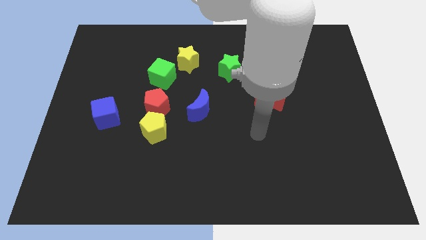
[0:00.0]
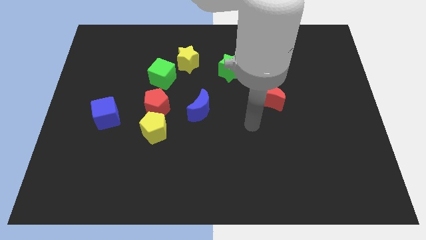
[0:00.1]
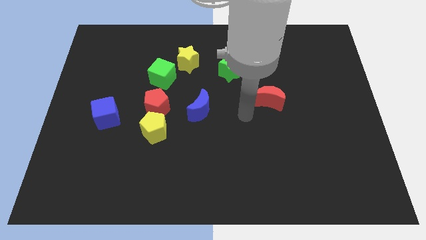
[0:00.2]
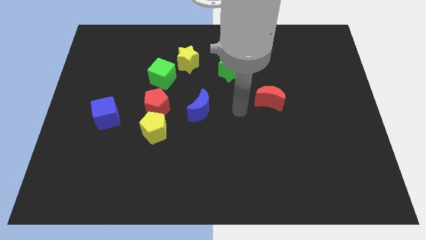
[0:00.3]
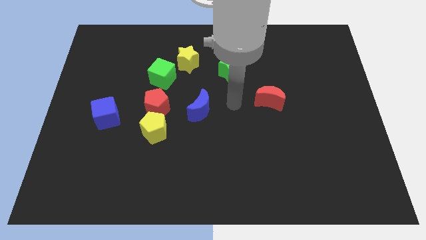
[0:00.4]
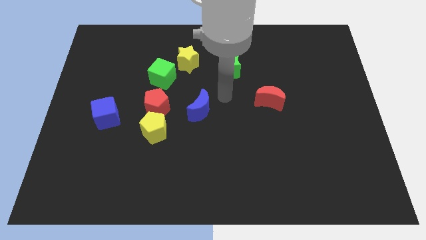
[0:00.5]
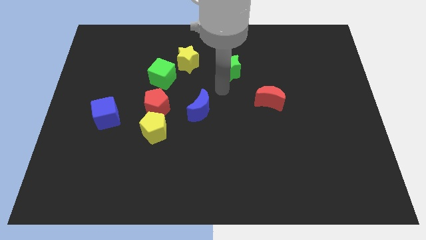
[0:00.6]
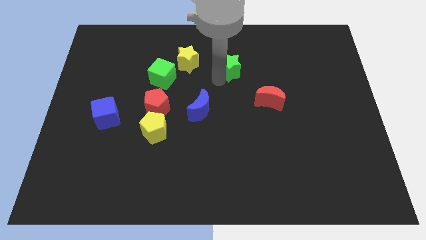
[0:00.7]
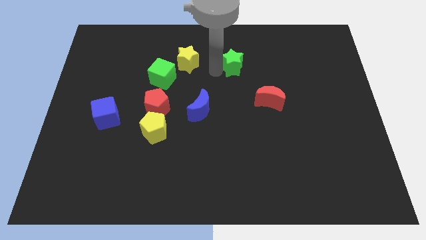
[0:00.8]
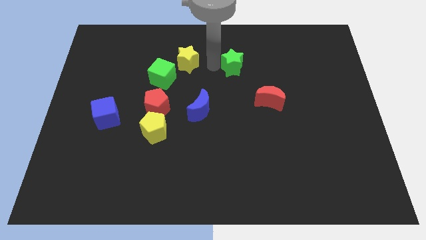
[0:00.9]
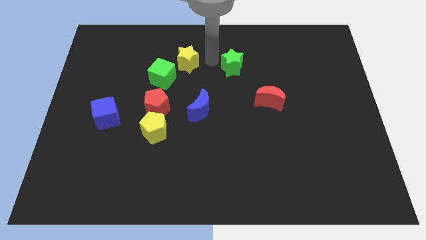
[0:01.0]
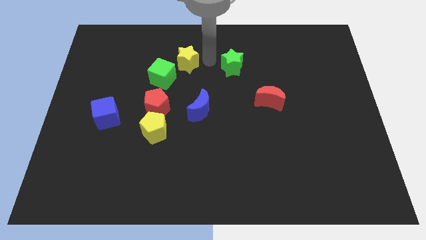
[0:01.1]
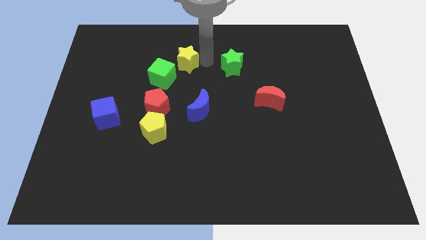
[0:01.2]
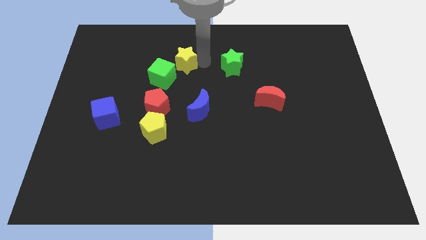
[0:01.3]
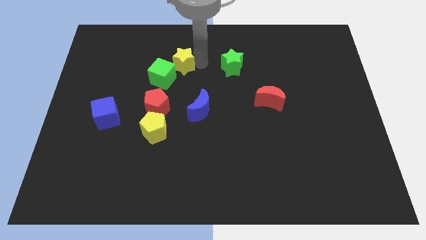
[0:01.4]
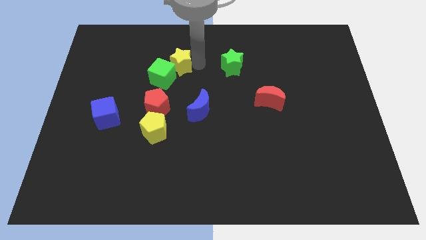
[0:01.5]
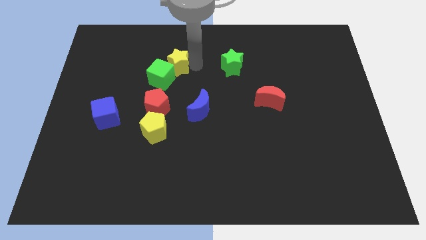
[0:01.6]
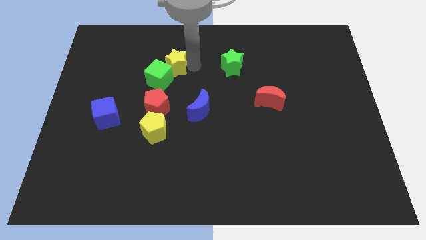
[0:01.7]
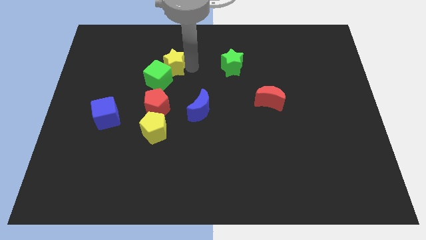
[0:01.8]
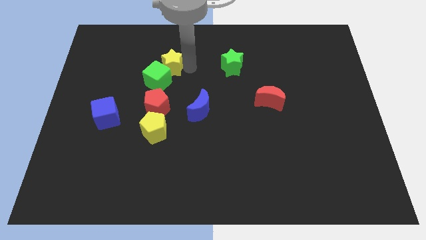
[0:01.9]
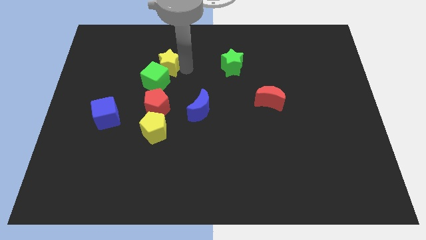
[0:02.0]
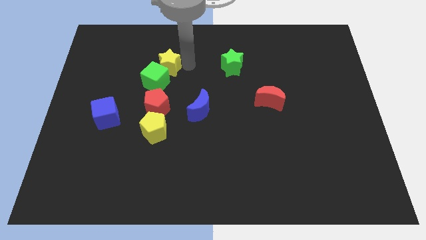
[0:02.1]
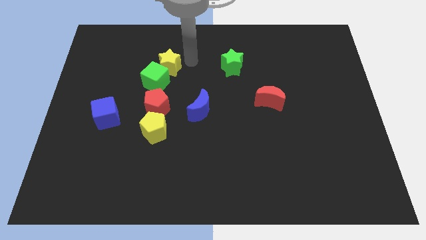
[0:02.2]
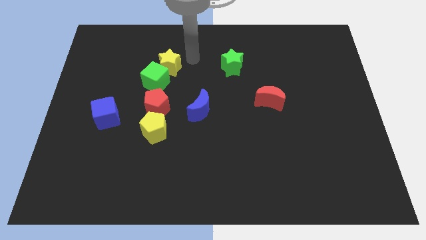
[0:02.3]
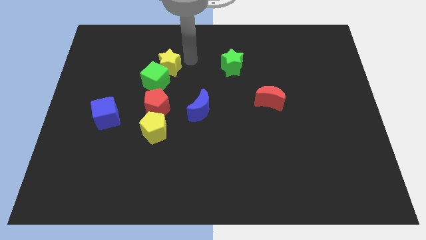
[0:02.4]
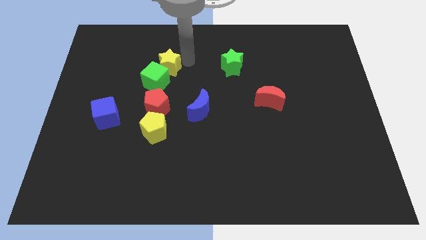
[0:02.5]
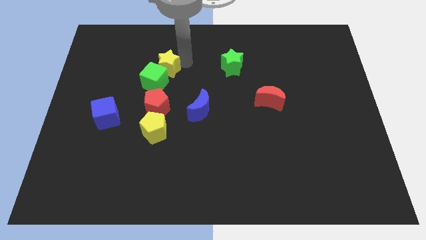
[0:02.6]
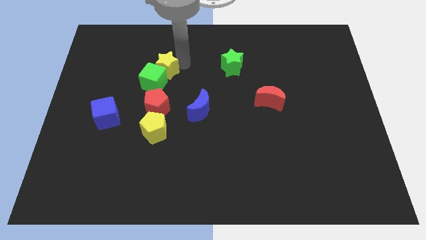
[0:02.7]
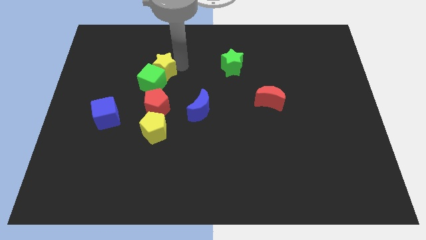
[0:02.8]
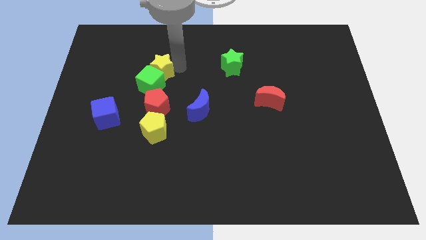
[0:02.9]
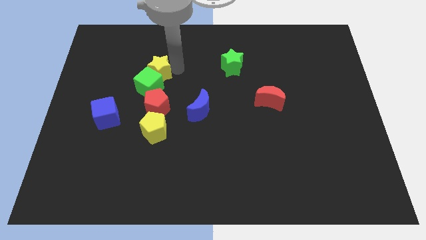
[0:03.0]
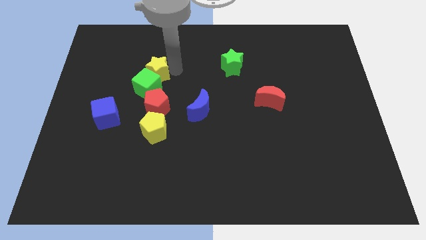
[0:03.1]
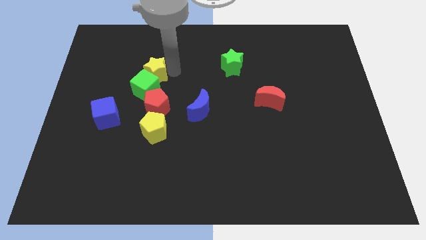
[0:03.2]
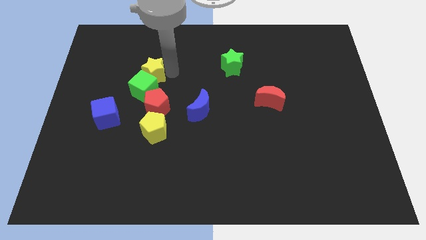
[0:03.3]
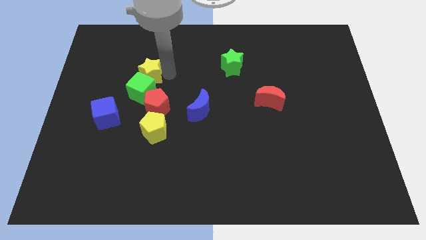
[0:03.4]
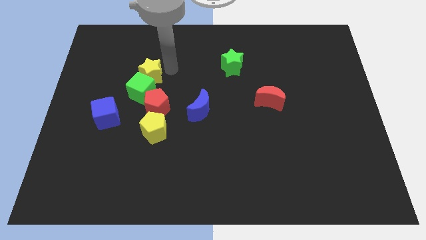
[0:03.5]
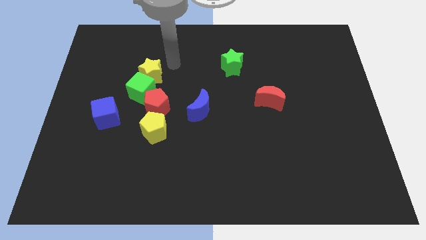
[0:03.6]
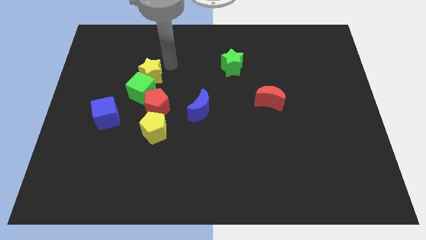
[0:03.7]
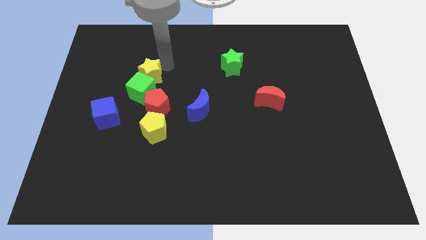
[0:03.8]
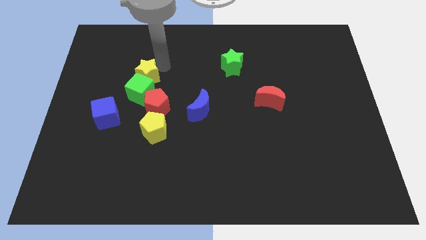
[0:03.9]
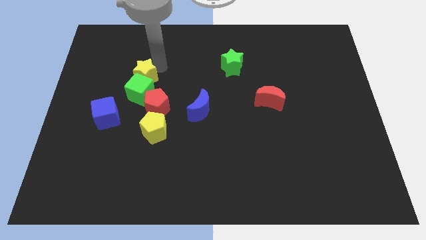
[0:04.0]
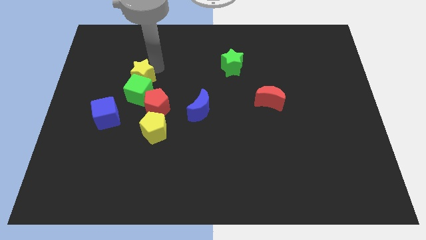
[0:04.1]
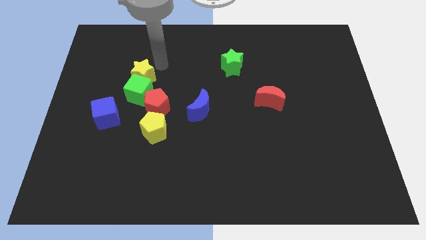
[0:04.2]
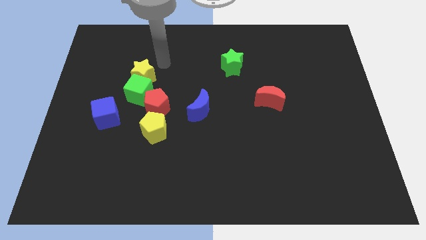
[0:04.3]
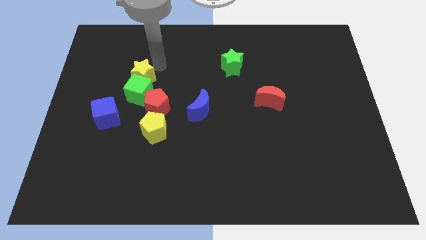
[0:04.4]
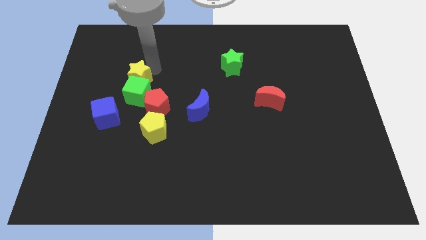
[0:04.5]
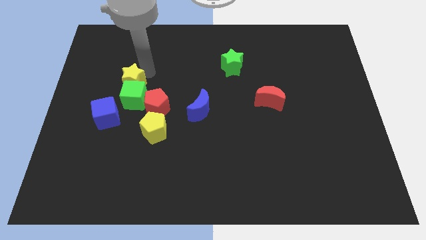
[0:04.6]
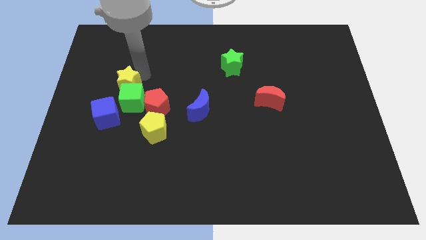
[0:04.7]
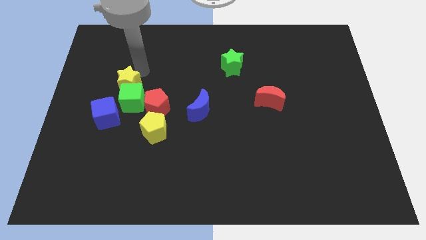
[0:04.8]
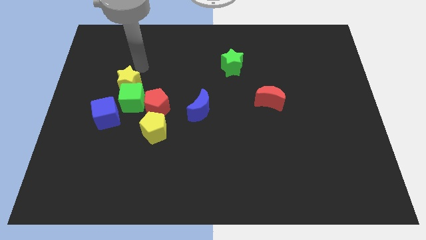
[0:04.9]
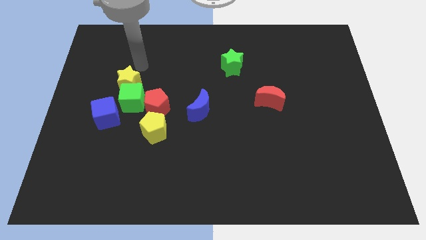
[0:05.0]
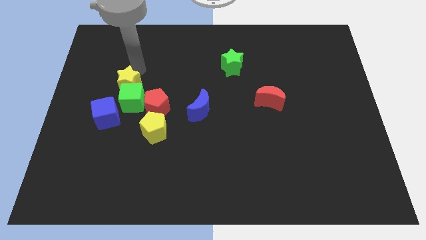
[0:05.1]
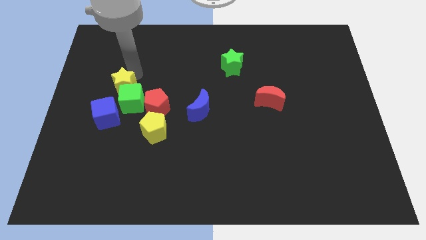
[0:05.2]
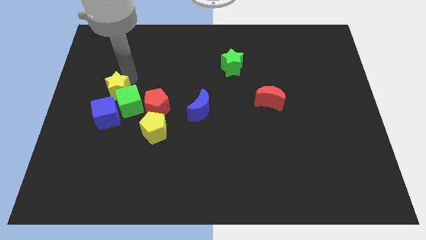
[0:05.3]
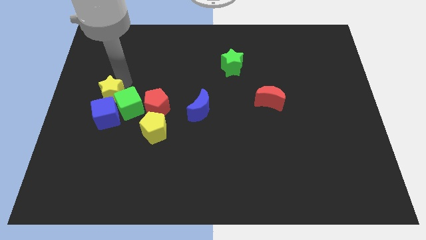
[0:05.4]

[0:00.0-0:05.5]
slide the yellow star to the left side of the red pentagon

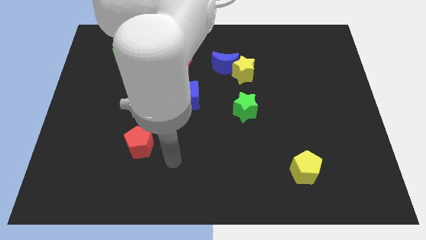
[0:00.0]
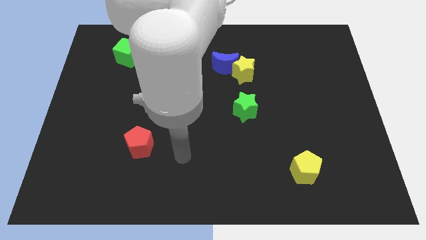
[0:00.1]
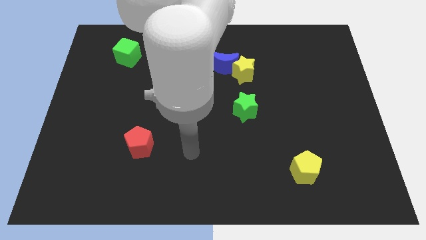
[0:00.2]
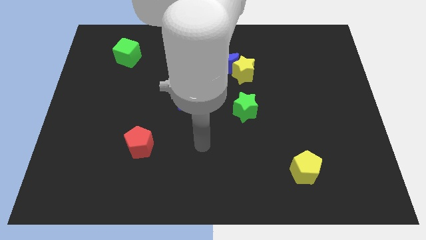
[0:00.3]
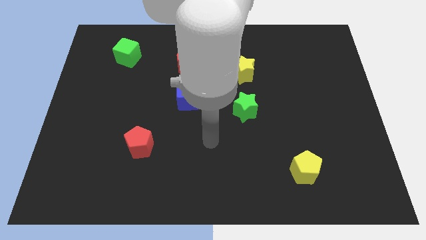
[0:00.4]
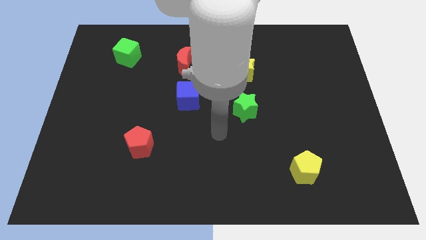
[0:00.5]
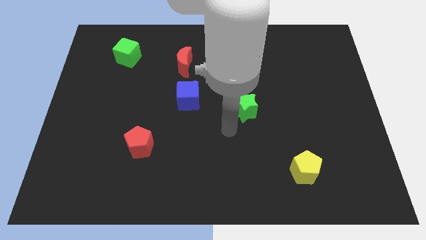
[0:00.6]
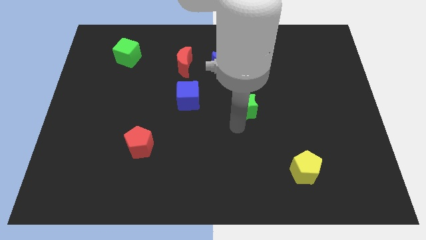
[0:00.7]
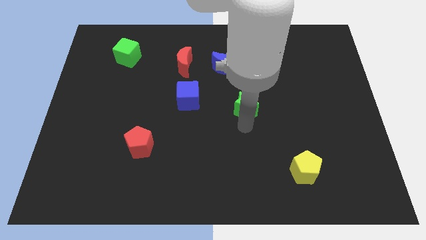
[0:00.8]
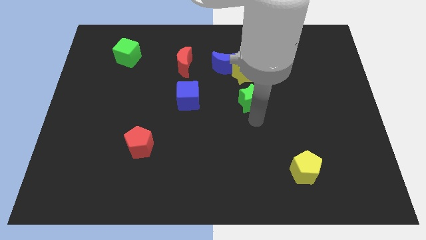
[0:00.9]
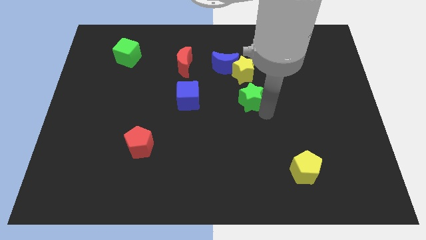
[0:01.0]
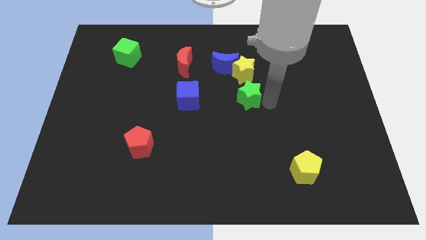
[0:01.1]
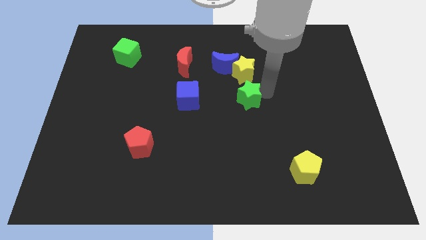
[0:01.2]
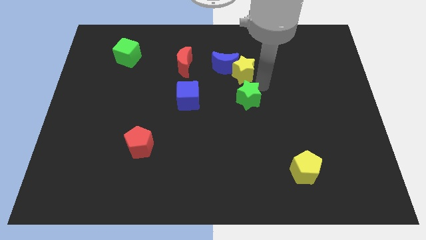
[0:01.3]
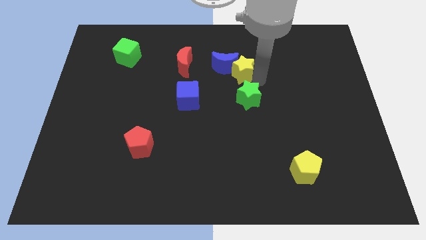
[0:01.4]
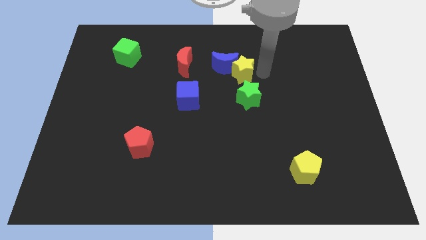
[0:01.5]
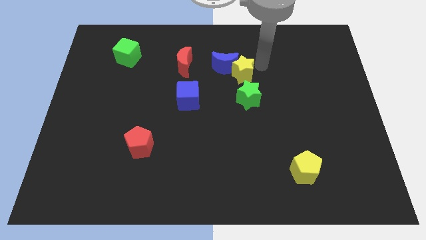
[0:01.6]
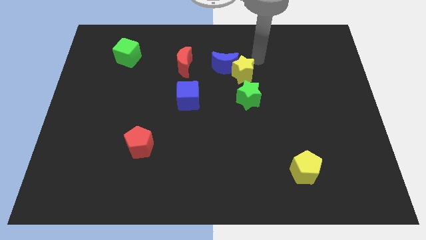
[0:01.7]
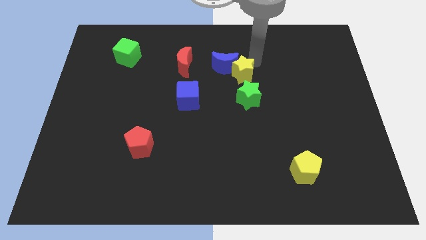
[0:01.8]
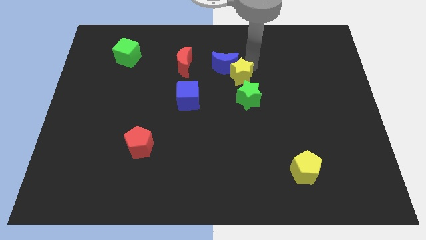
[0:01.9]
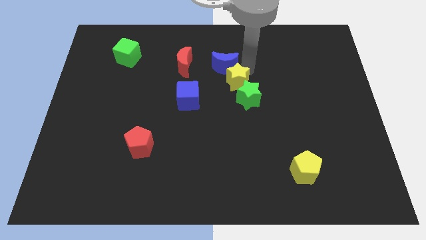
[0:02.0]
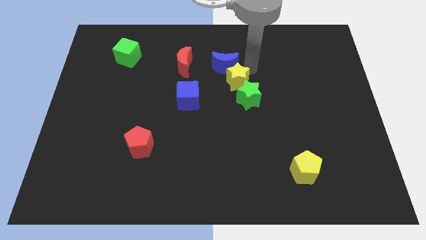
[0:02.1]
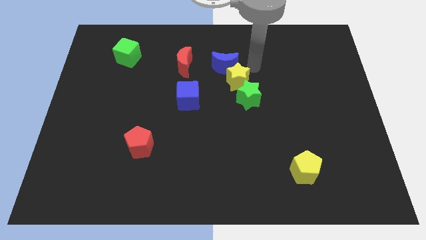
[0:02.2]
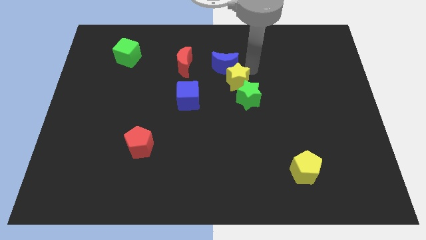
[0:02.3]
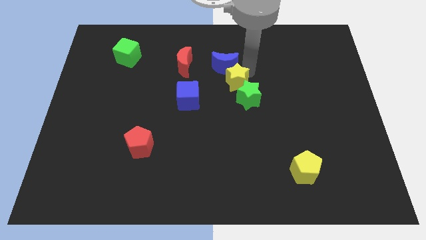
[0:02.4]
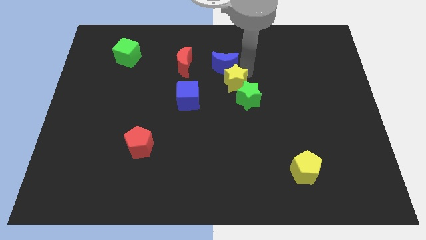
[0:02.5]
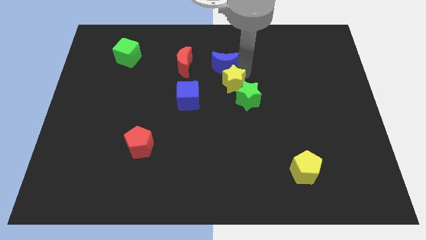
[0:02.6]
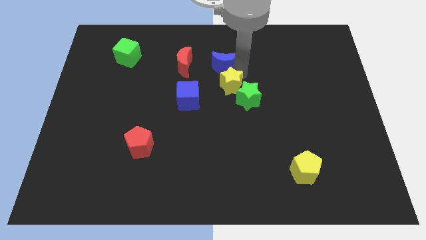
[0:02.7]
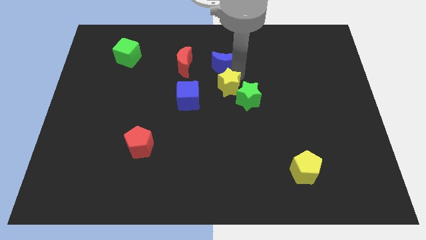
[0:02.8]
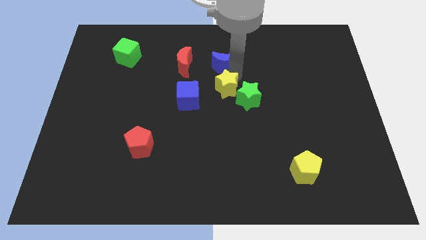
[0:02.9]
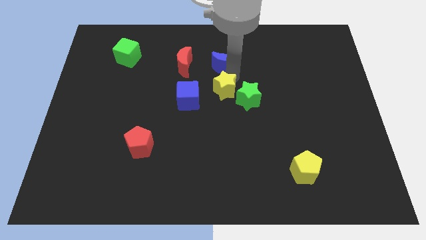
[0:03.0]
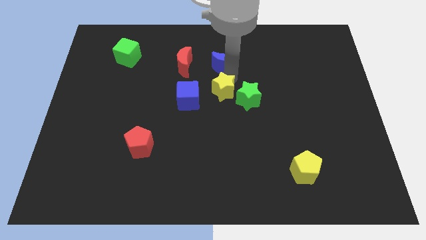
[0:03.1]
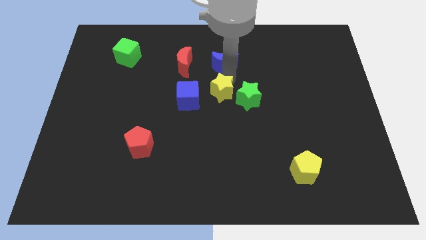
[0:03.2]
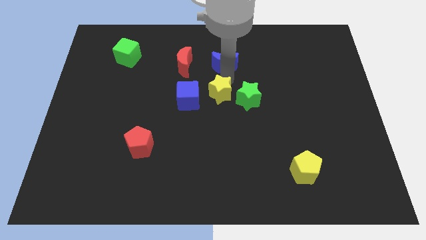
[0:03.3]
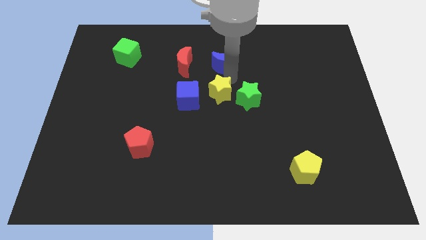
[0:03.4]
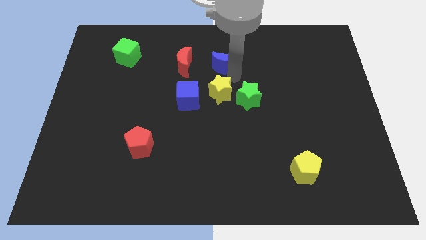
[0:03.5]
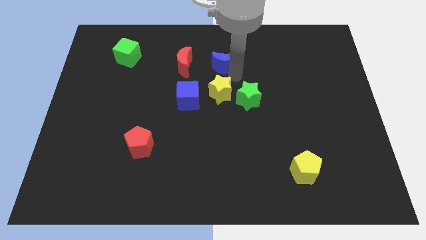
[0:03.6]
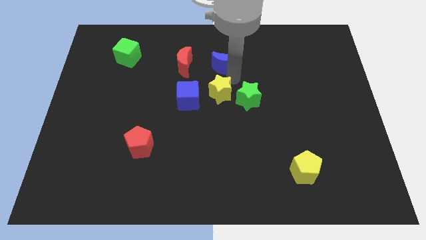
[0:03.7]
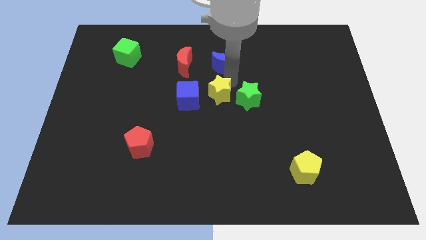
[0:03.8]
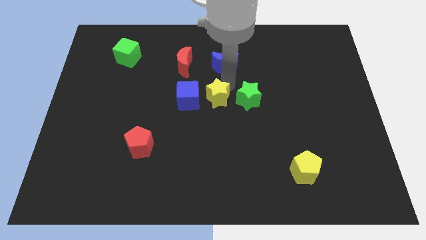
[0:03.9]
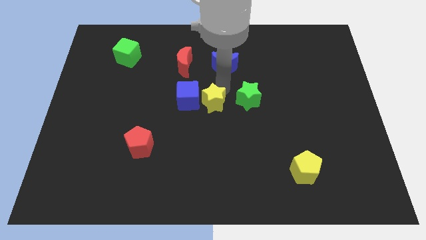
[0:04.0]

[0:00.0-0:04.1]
push the yellow star diagonally down and to the left of the green star
